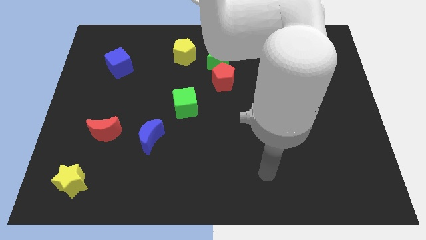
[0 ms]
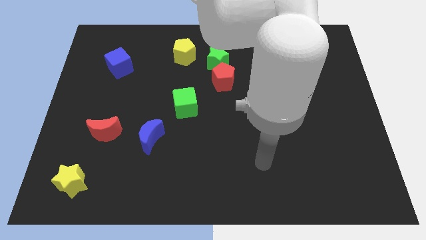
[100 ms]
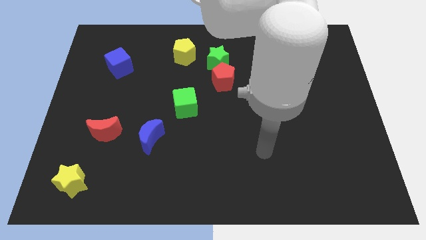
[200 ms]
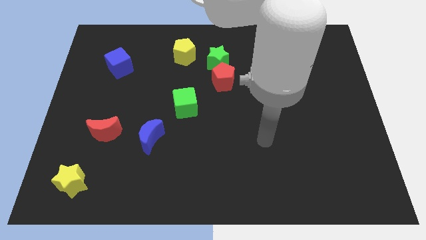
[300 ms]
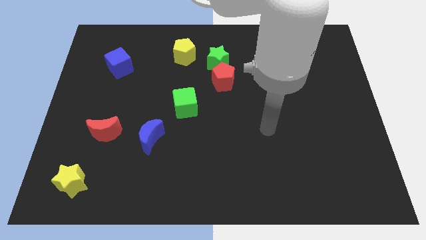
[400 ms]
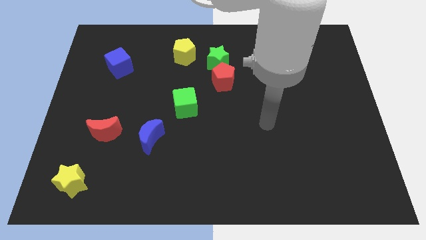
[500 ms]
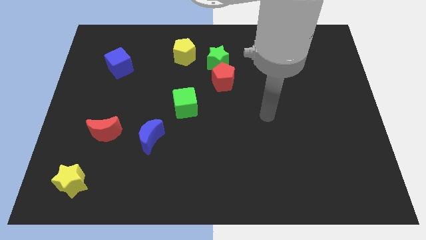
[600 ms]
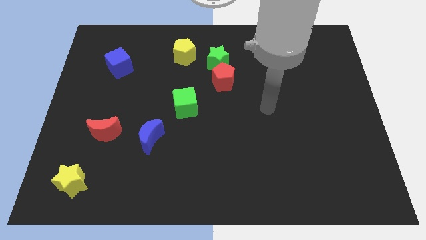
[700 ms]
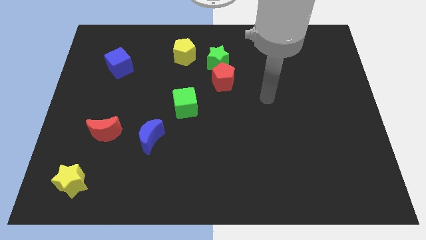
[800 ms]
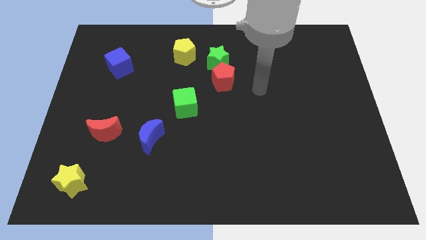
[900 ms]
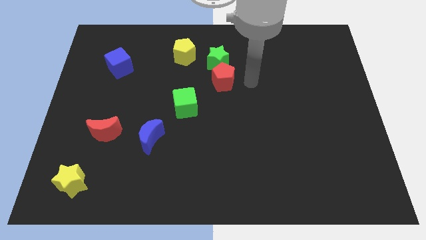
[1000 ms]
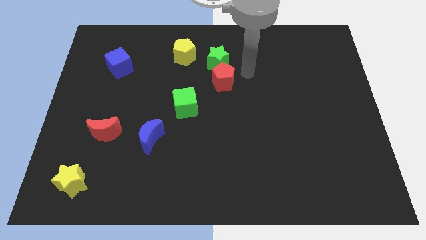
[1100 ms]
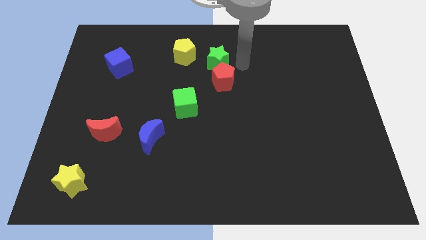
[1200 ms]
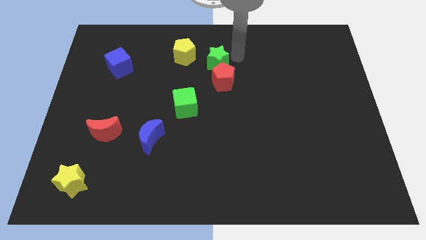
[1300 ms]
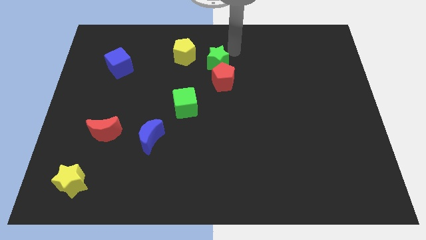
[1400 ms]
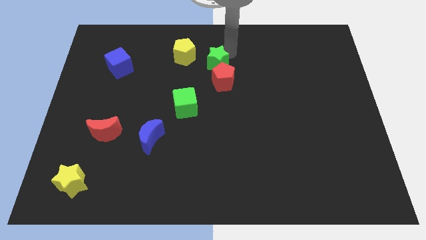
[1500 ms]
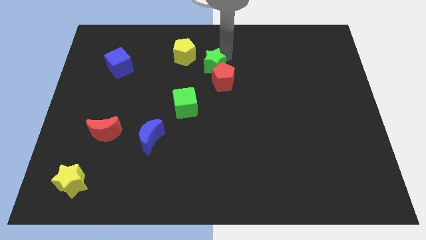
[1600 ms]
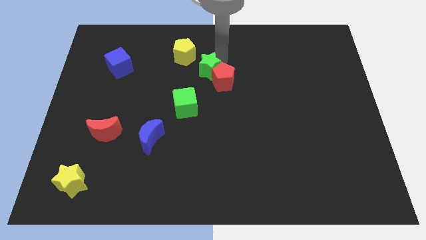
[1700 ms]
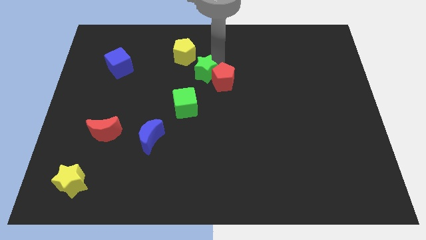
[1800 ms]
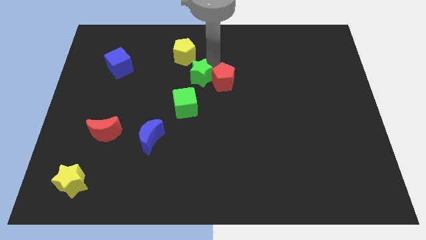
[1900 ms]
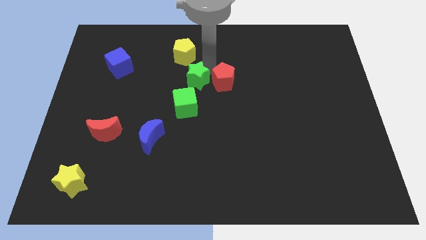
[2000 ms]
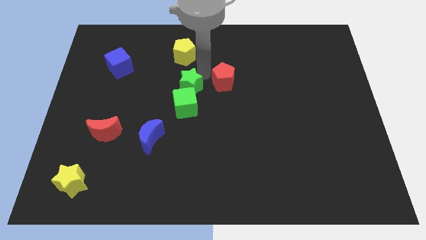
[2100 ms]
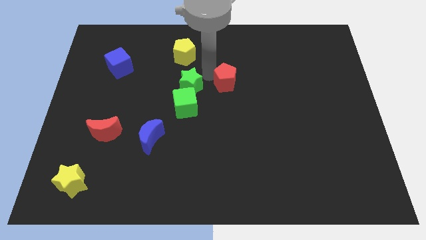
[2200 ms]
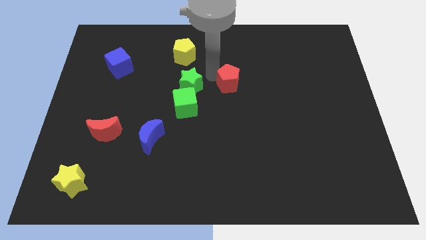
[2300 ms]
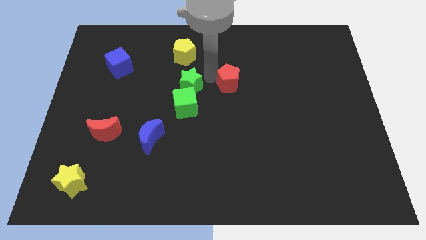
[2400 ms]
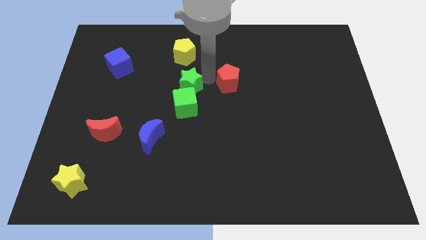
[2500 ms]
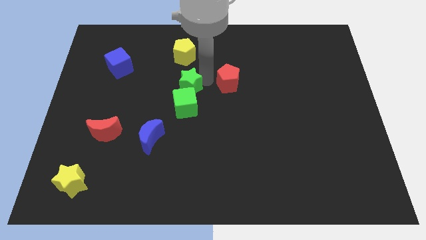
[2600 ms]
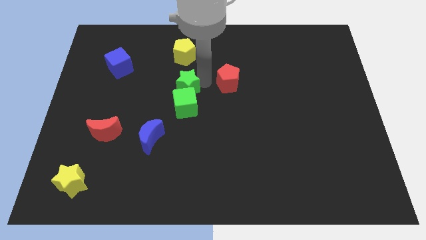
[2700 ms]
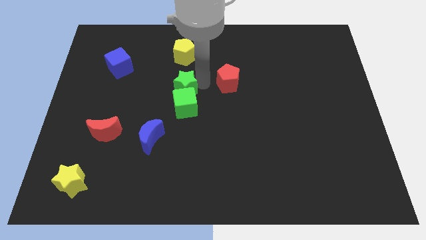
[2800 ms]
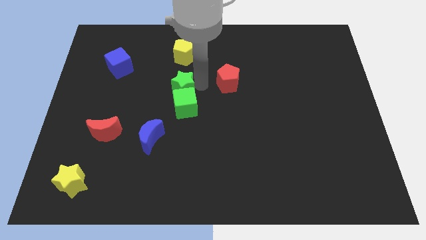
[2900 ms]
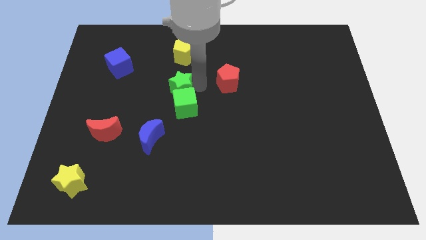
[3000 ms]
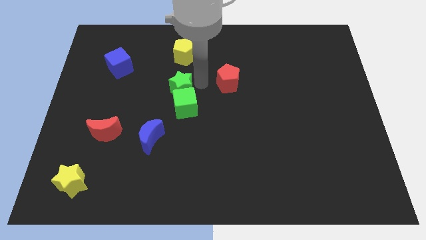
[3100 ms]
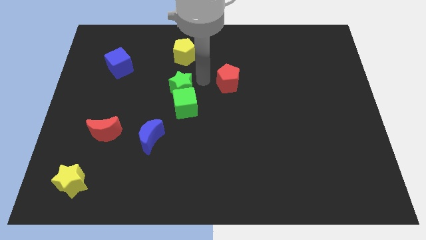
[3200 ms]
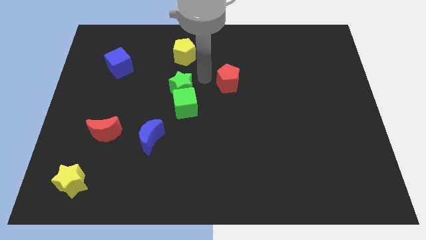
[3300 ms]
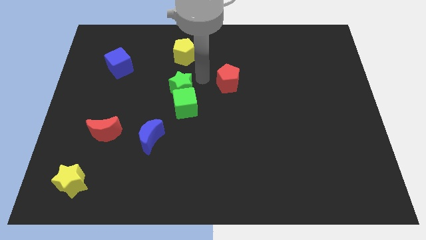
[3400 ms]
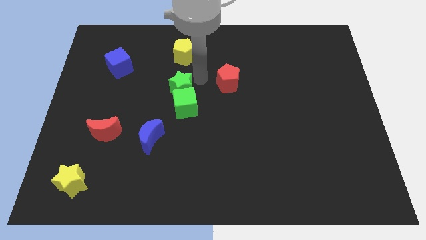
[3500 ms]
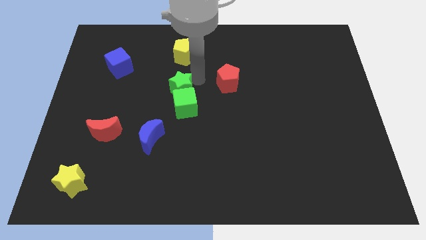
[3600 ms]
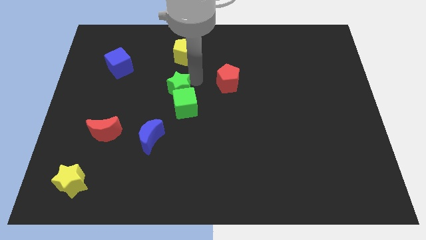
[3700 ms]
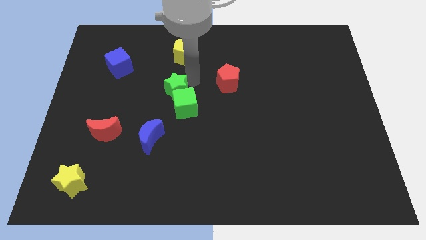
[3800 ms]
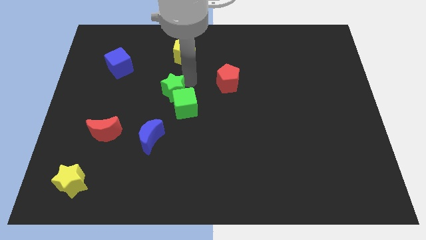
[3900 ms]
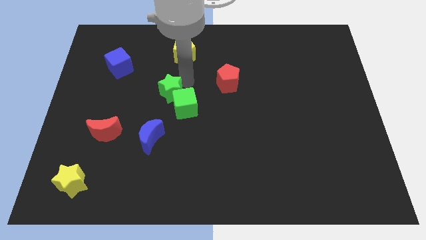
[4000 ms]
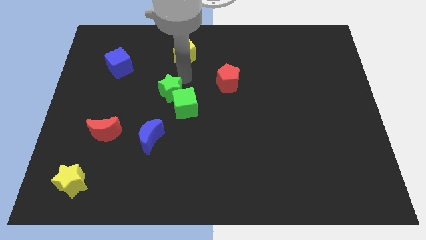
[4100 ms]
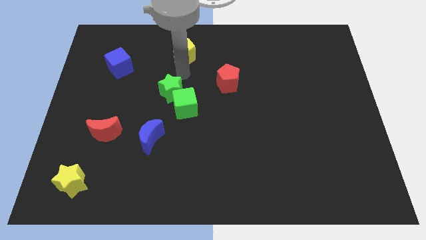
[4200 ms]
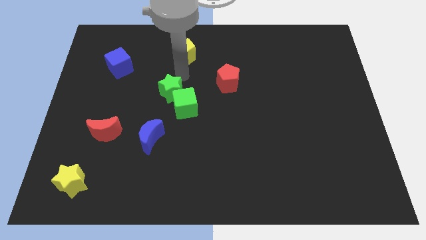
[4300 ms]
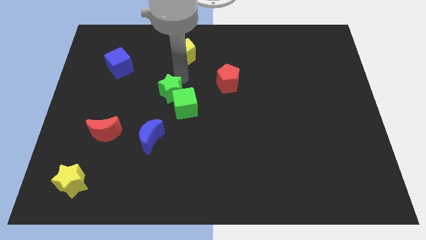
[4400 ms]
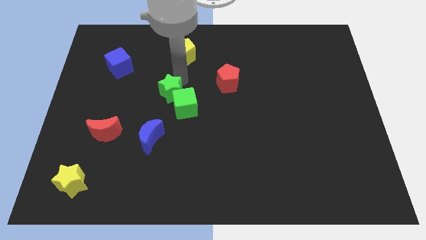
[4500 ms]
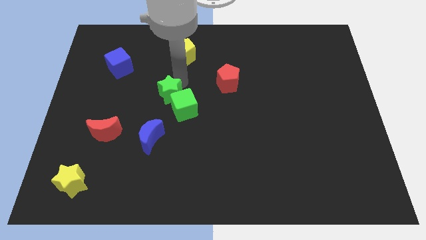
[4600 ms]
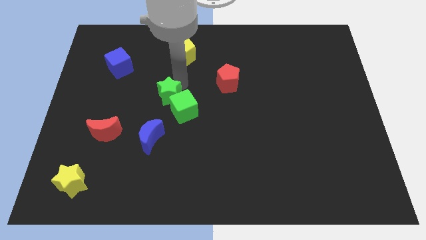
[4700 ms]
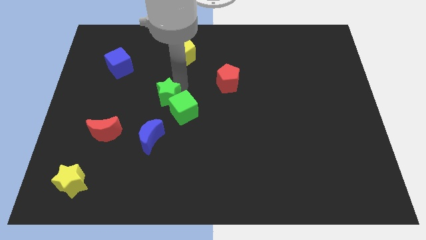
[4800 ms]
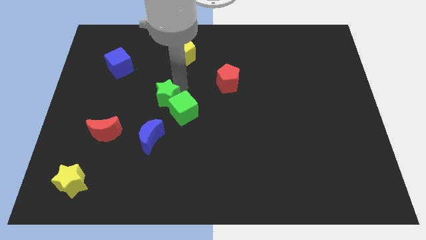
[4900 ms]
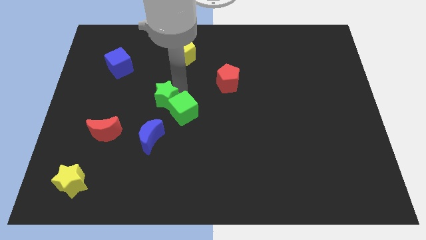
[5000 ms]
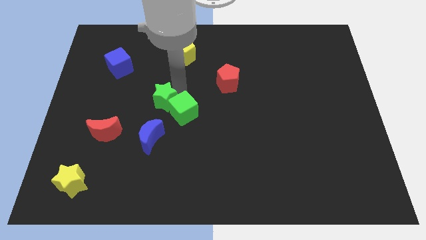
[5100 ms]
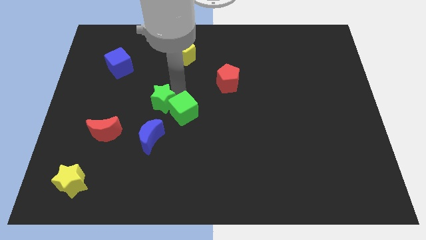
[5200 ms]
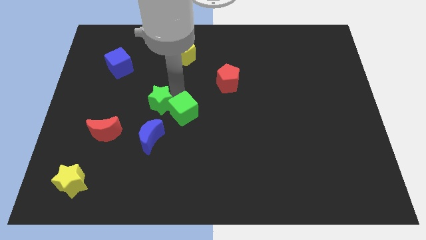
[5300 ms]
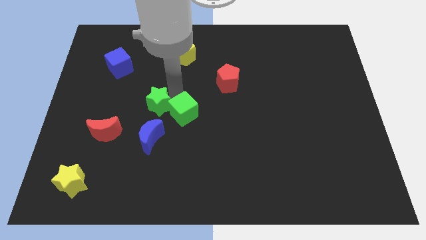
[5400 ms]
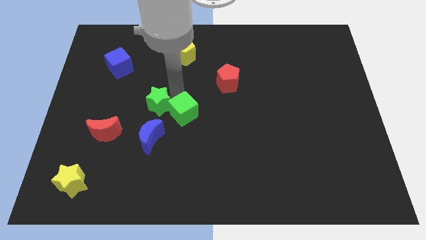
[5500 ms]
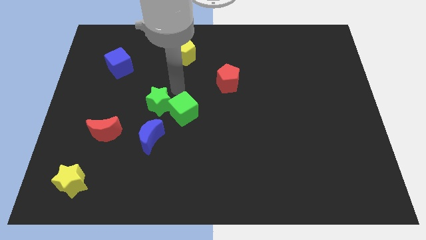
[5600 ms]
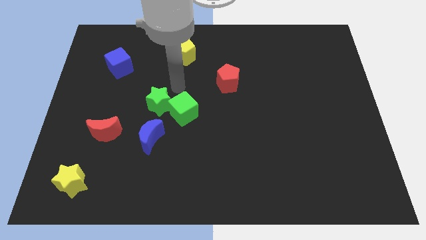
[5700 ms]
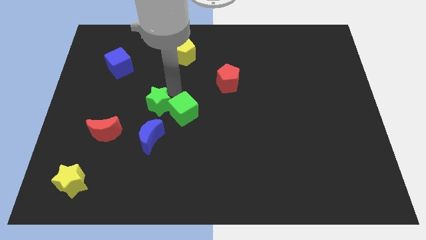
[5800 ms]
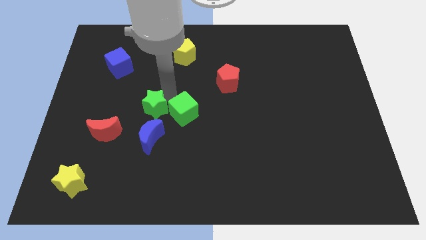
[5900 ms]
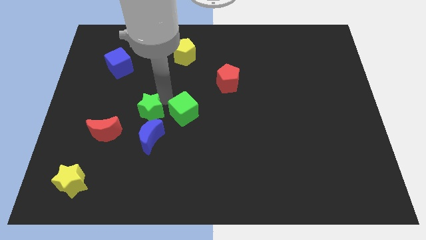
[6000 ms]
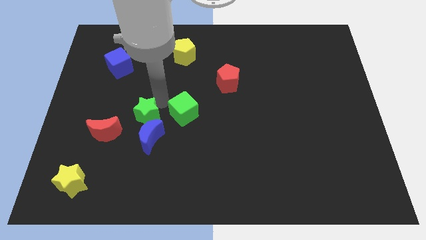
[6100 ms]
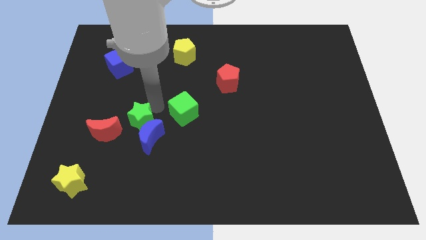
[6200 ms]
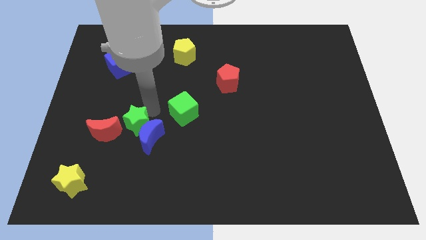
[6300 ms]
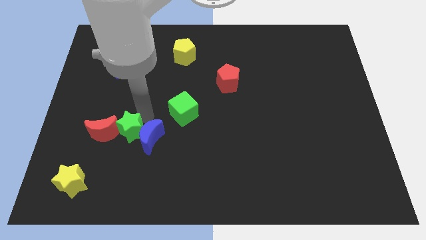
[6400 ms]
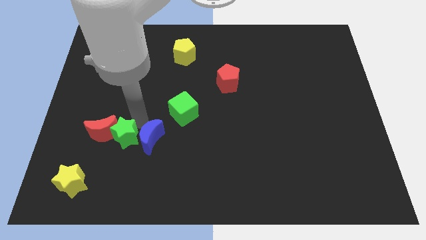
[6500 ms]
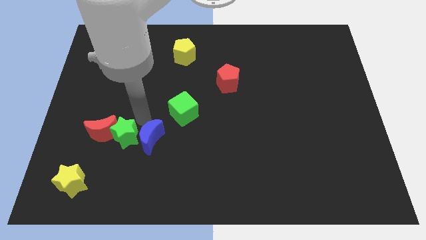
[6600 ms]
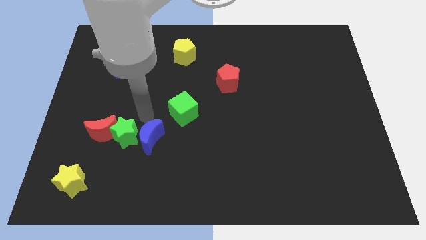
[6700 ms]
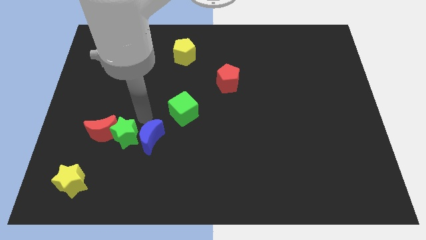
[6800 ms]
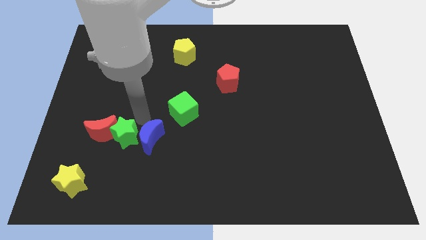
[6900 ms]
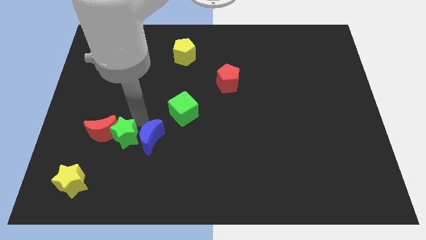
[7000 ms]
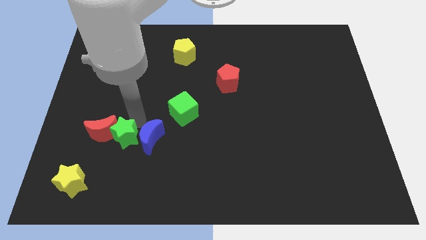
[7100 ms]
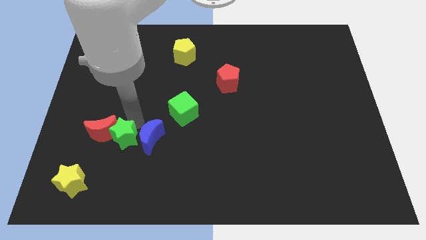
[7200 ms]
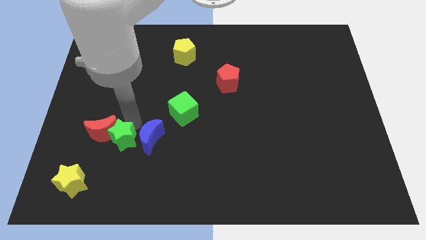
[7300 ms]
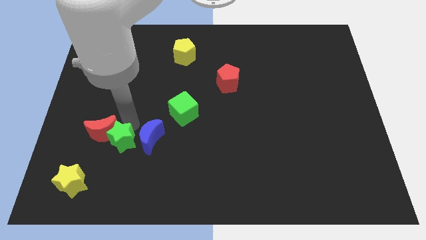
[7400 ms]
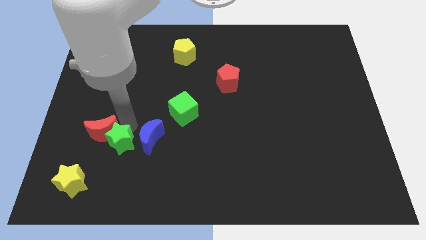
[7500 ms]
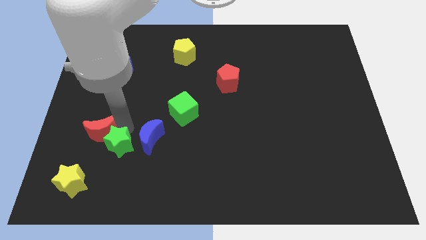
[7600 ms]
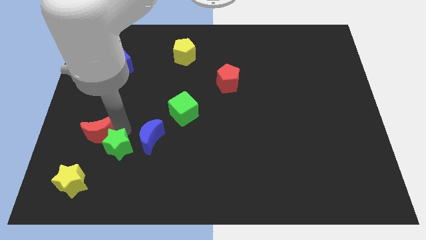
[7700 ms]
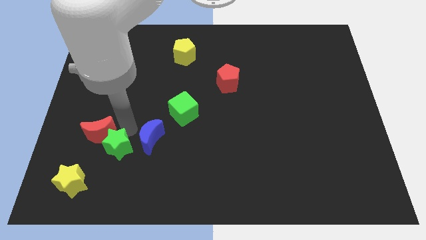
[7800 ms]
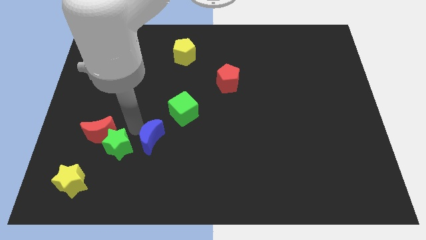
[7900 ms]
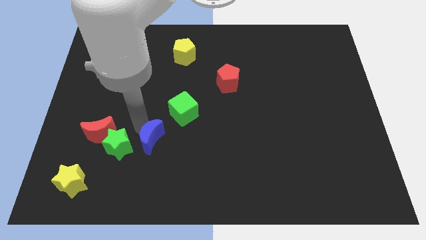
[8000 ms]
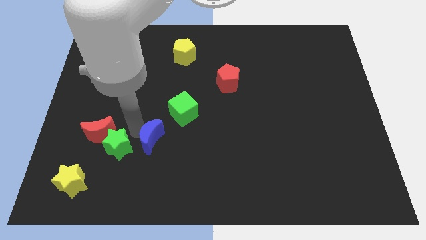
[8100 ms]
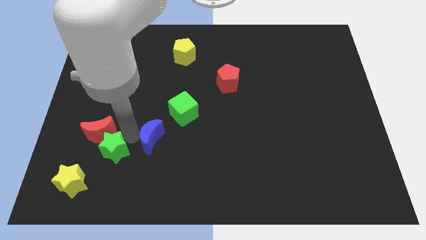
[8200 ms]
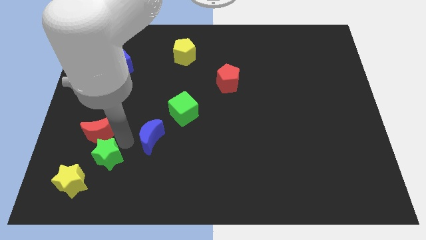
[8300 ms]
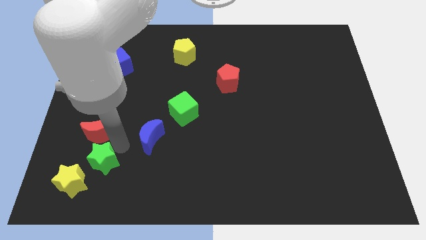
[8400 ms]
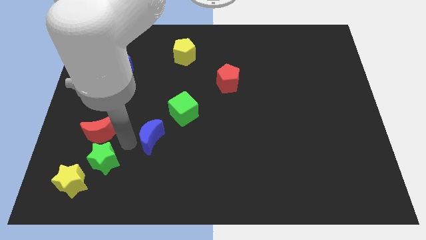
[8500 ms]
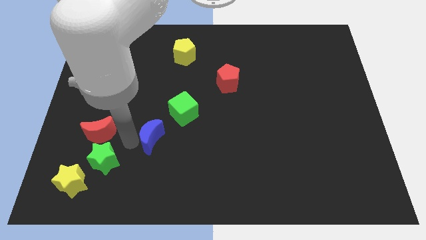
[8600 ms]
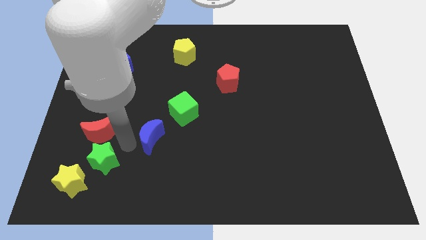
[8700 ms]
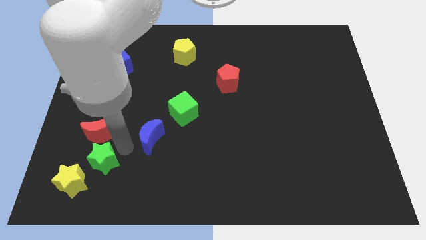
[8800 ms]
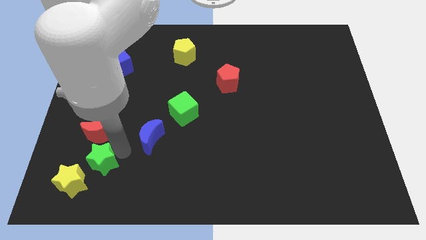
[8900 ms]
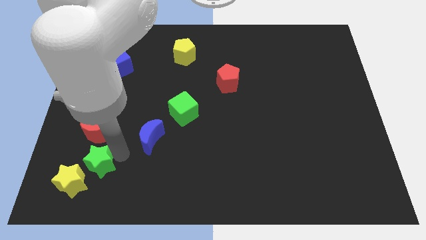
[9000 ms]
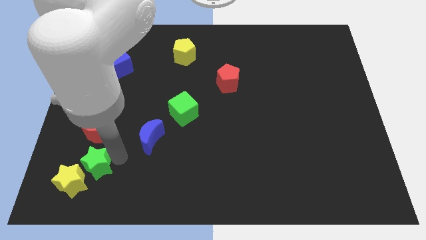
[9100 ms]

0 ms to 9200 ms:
put the green star towards the yellow star
